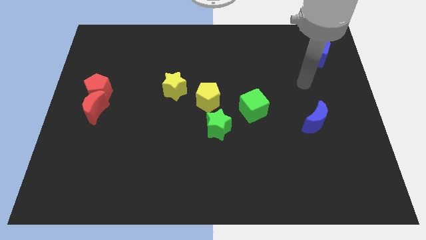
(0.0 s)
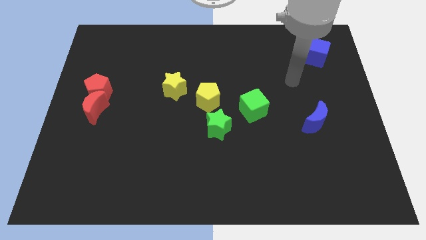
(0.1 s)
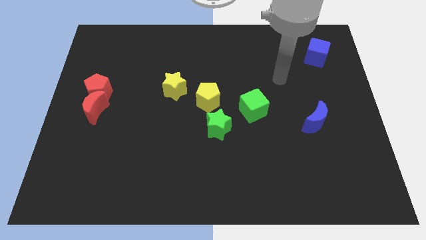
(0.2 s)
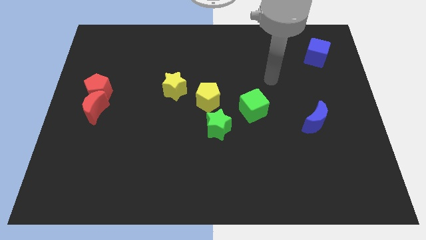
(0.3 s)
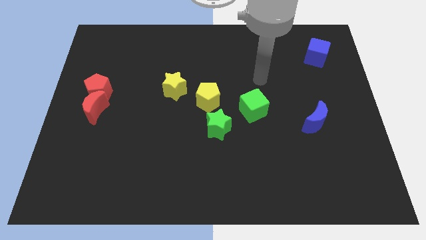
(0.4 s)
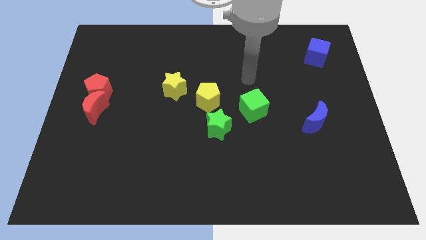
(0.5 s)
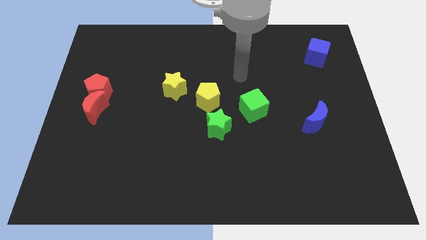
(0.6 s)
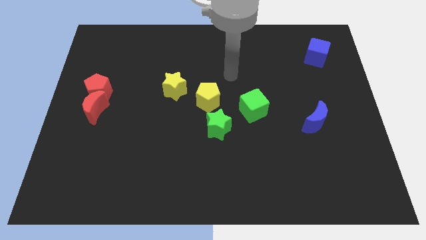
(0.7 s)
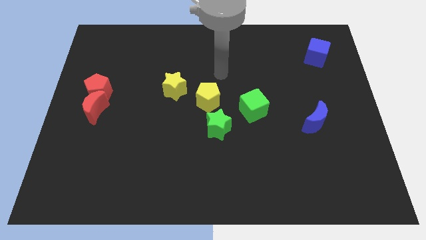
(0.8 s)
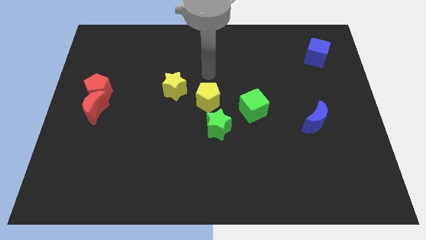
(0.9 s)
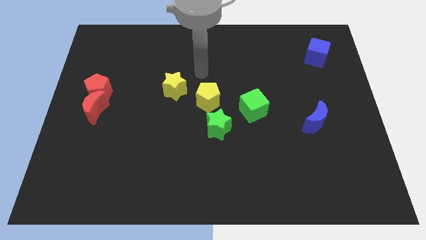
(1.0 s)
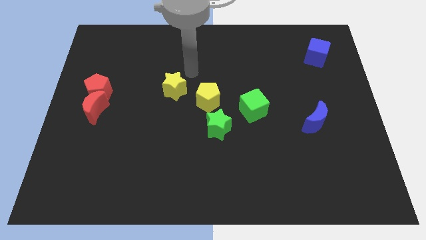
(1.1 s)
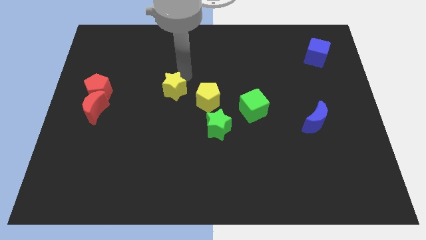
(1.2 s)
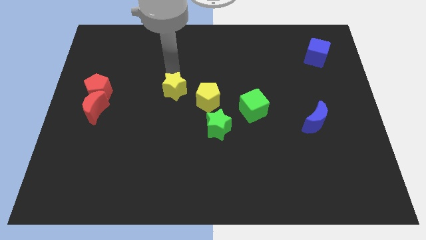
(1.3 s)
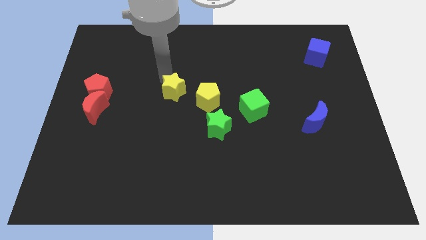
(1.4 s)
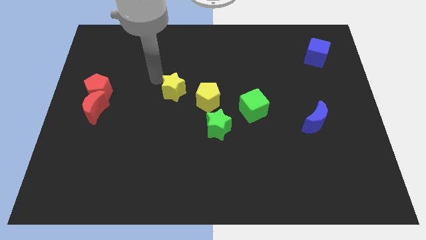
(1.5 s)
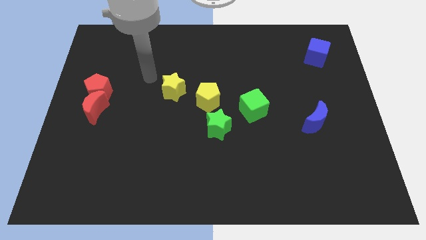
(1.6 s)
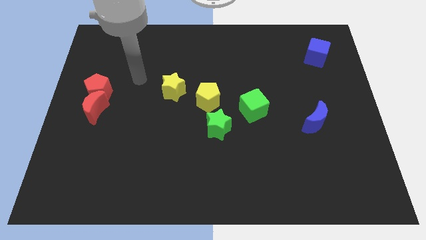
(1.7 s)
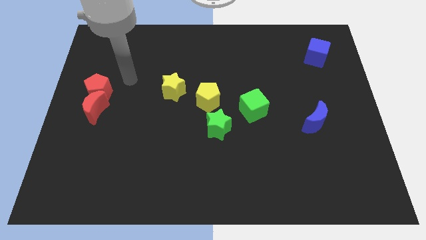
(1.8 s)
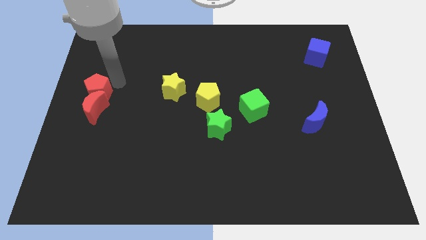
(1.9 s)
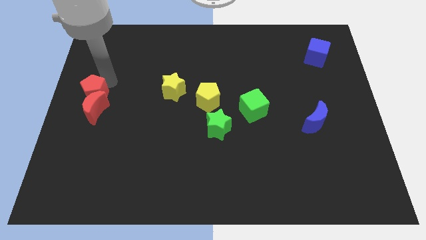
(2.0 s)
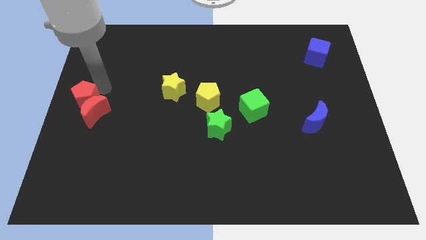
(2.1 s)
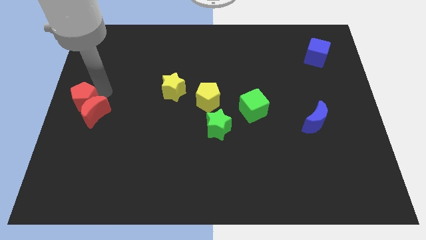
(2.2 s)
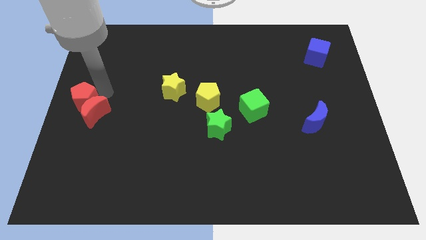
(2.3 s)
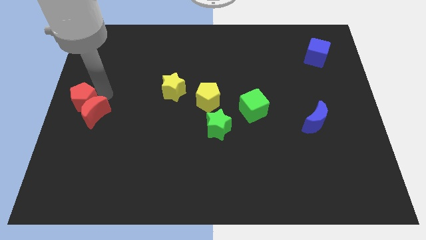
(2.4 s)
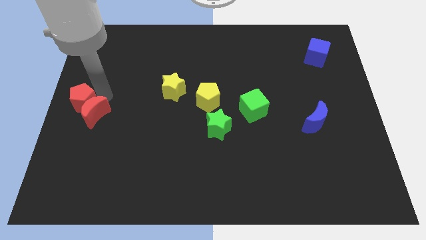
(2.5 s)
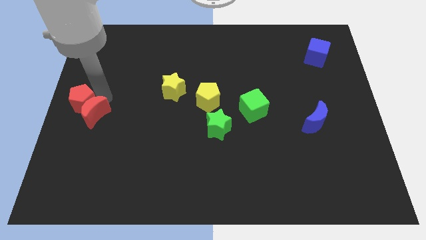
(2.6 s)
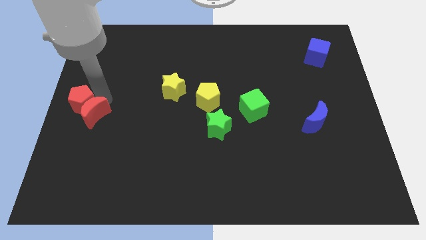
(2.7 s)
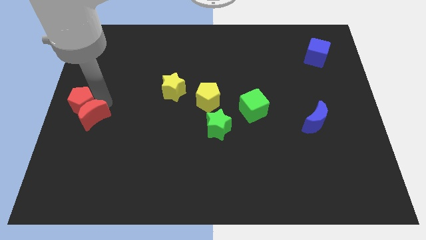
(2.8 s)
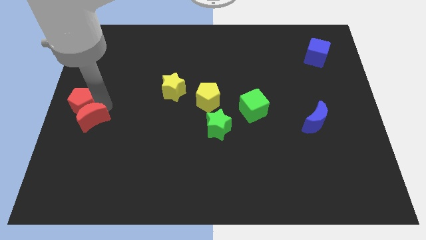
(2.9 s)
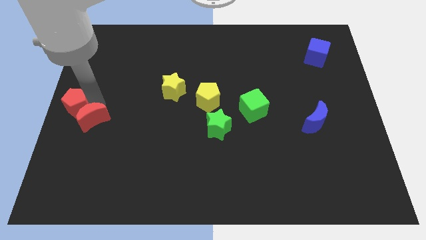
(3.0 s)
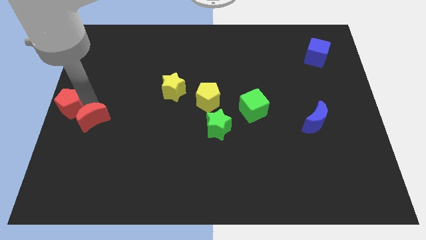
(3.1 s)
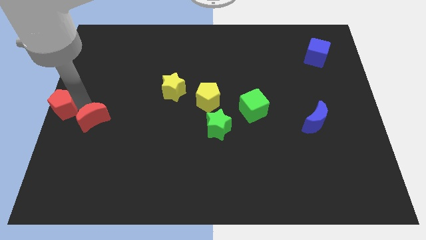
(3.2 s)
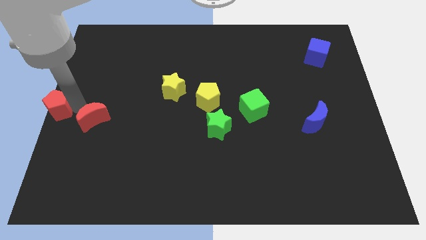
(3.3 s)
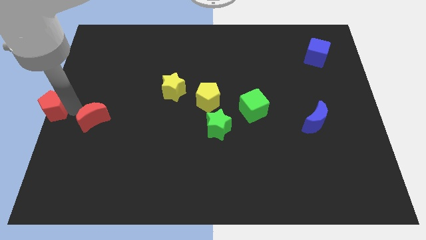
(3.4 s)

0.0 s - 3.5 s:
move the red moon away from the red pentagon

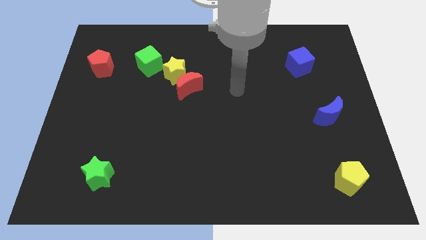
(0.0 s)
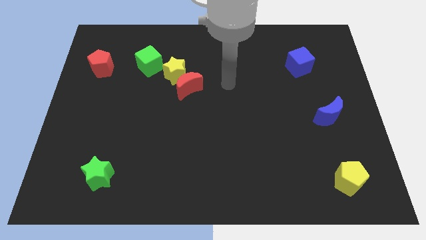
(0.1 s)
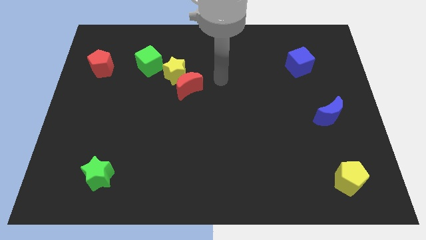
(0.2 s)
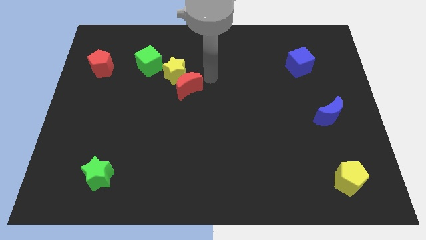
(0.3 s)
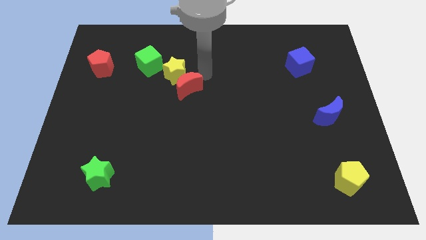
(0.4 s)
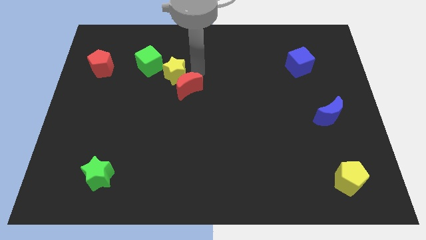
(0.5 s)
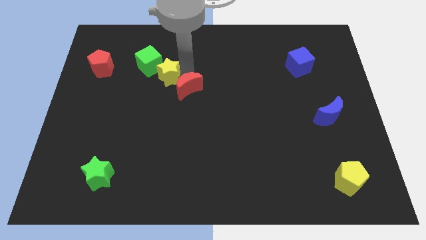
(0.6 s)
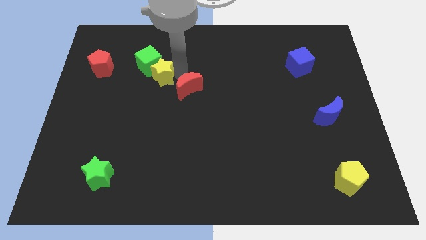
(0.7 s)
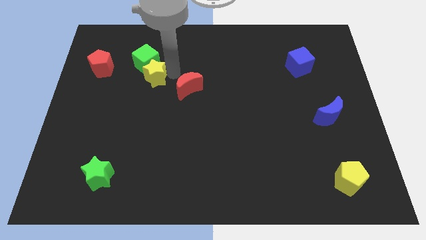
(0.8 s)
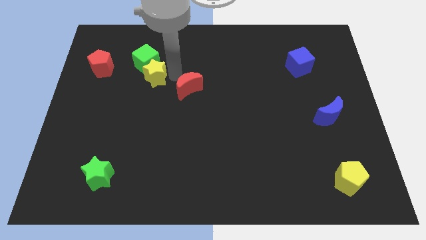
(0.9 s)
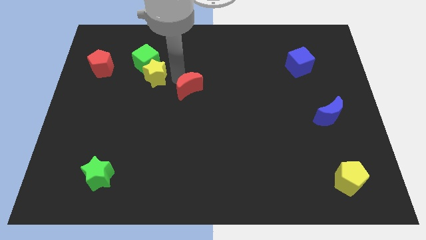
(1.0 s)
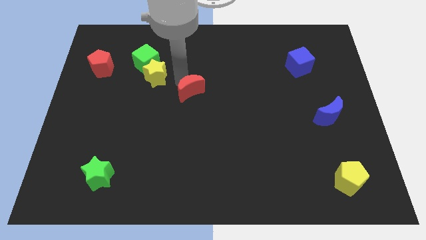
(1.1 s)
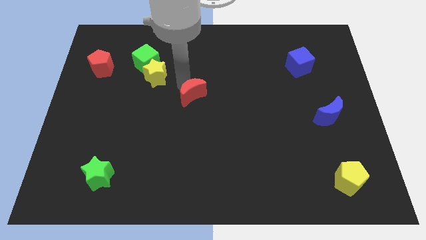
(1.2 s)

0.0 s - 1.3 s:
separate the red moon from the yellow star

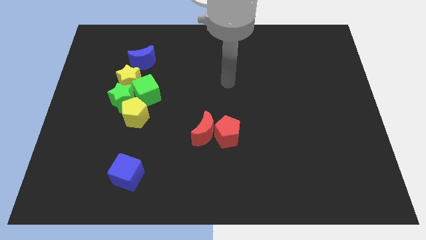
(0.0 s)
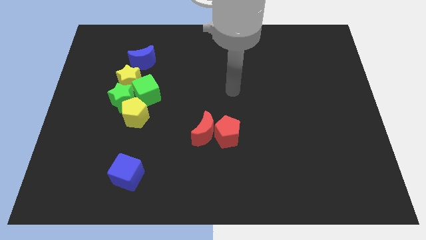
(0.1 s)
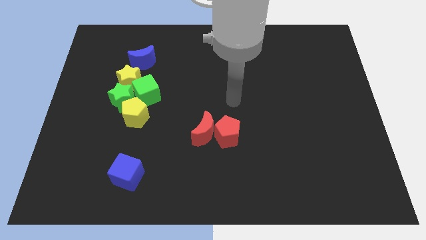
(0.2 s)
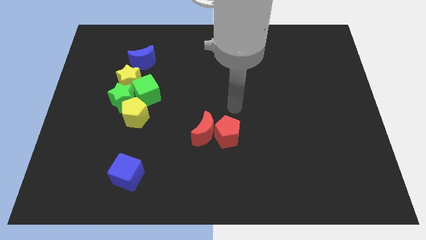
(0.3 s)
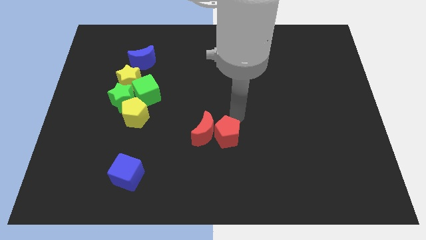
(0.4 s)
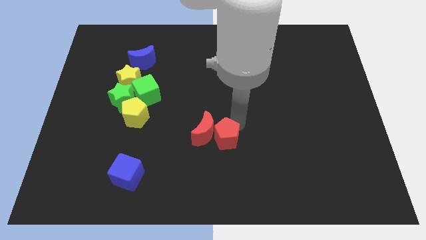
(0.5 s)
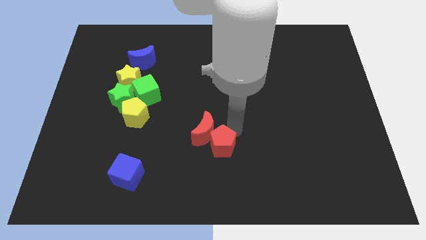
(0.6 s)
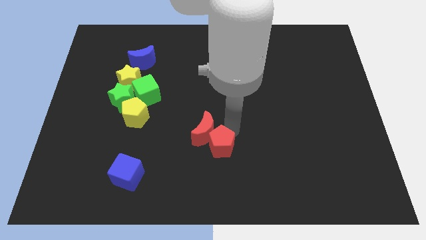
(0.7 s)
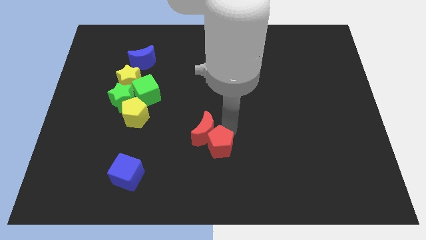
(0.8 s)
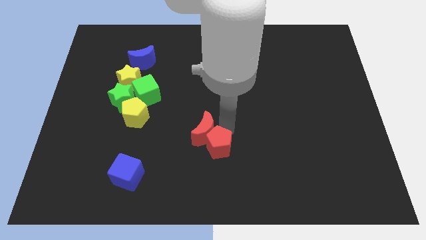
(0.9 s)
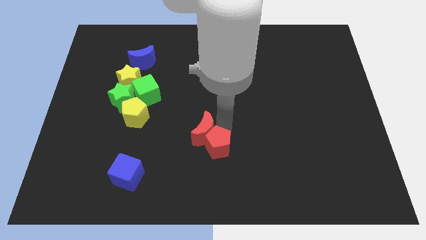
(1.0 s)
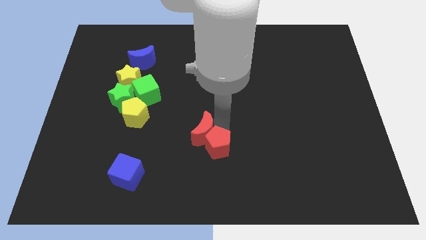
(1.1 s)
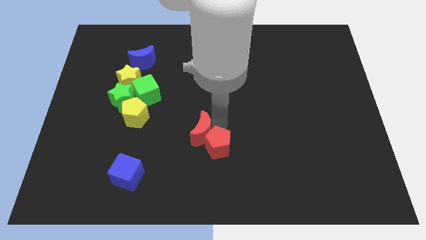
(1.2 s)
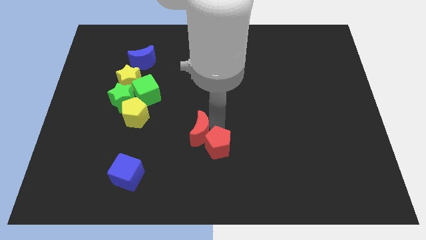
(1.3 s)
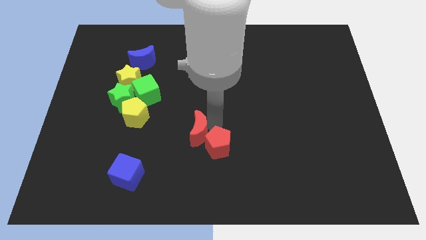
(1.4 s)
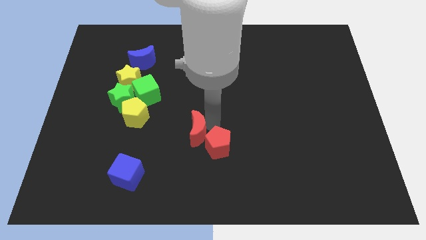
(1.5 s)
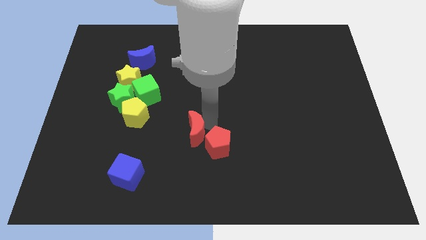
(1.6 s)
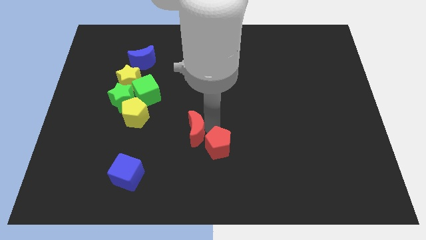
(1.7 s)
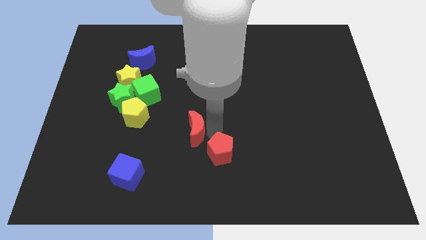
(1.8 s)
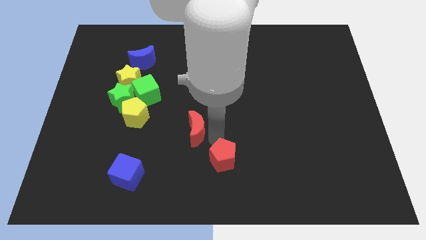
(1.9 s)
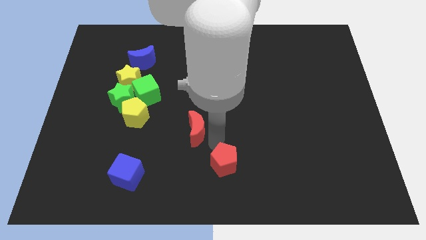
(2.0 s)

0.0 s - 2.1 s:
pull the red moon apart from the red pentagon

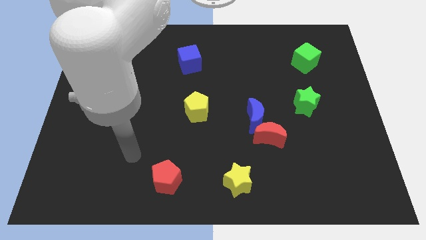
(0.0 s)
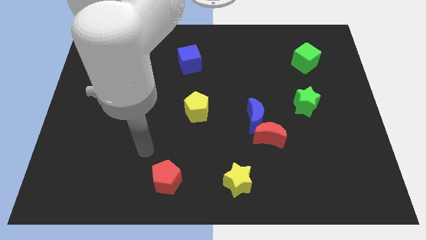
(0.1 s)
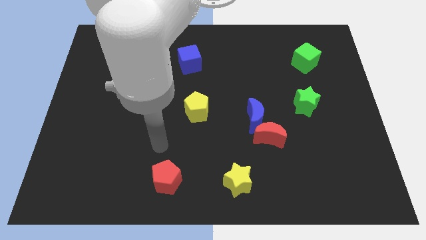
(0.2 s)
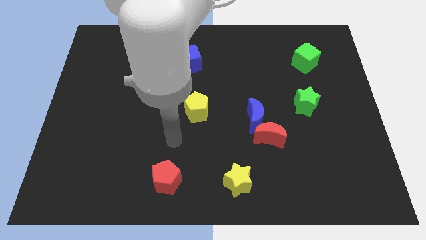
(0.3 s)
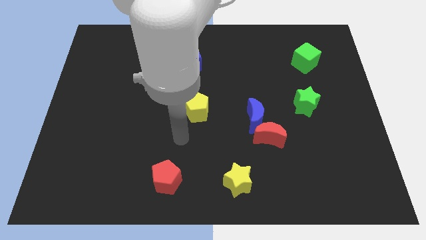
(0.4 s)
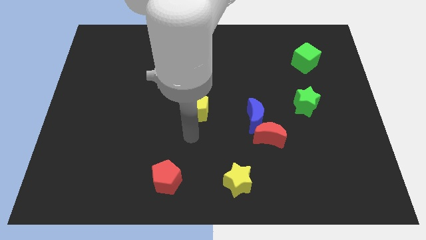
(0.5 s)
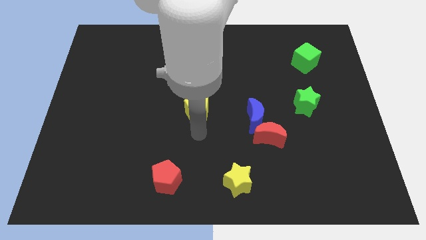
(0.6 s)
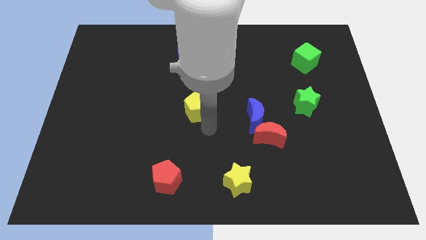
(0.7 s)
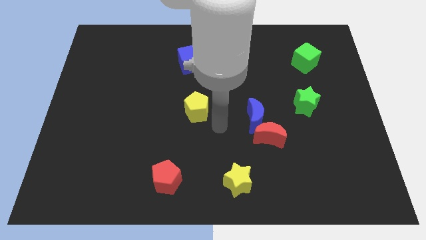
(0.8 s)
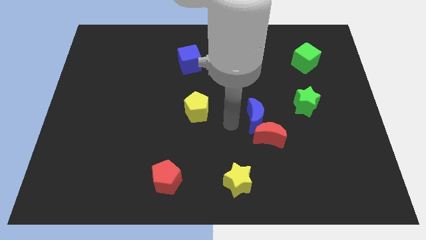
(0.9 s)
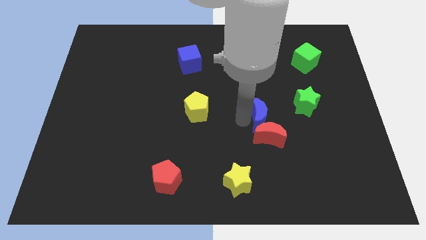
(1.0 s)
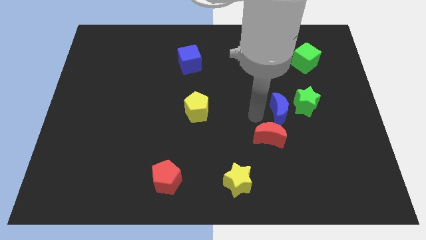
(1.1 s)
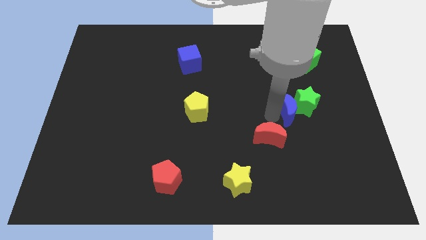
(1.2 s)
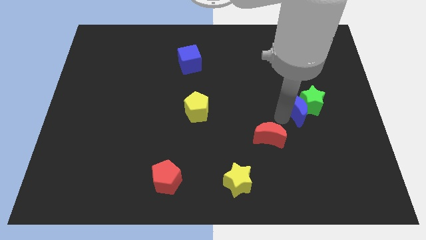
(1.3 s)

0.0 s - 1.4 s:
separate the red moon from the blue moon

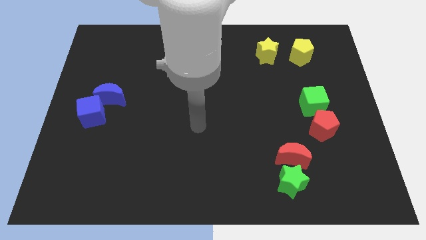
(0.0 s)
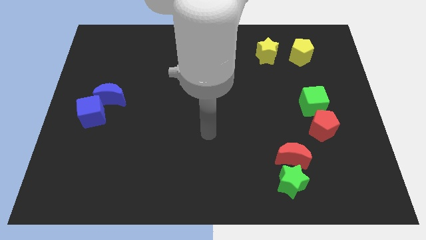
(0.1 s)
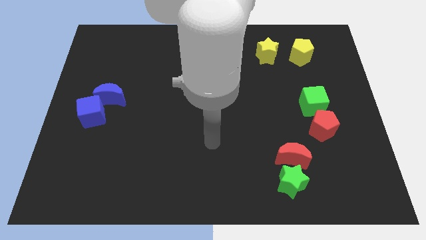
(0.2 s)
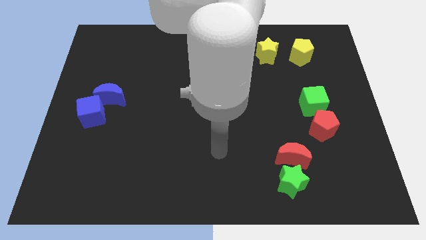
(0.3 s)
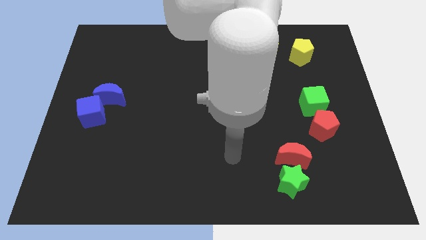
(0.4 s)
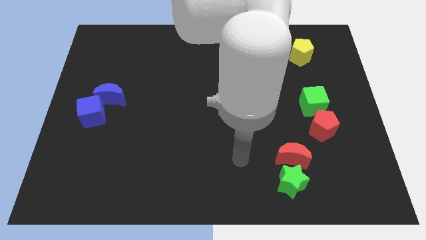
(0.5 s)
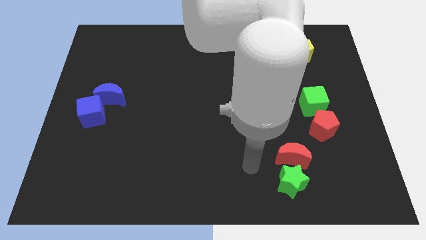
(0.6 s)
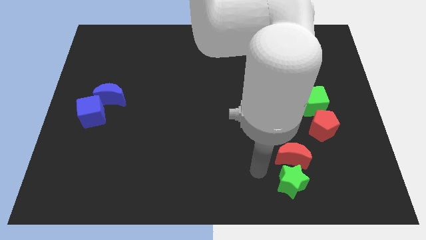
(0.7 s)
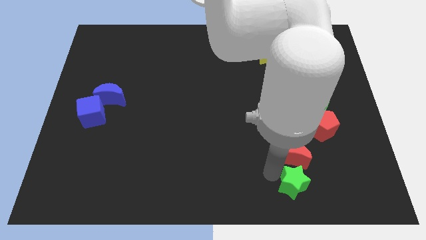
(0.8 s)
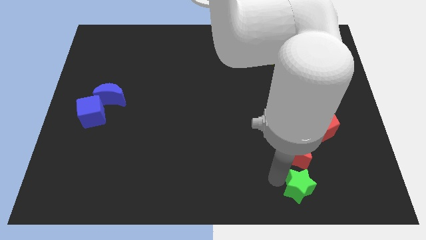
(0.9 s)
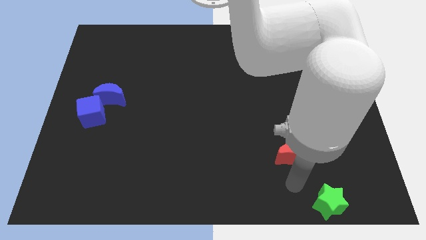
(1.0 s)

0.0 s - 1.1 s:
move the red moon away from the green star
